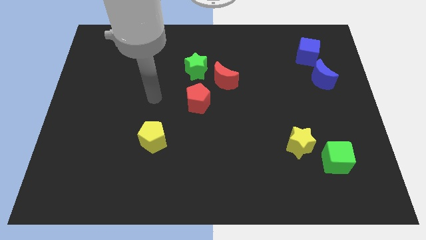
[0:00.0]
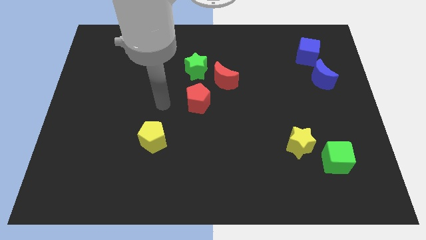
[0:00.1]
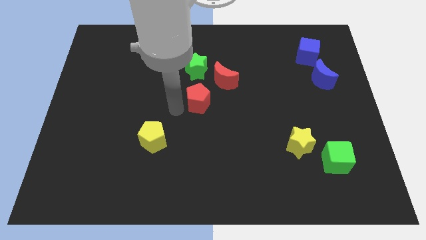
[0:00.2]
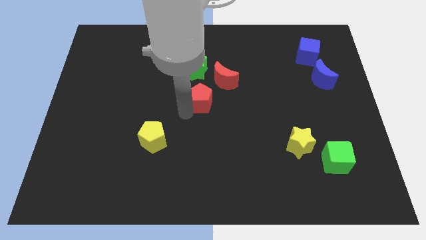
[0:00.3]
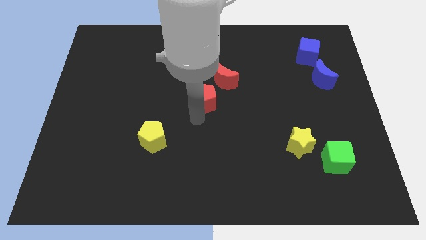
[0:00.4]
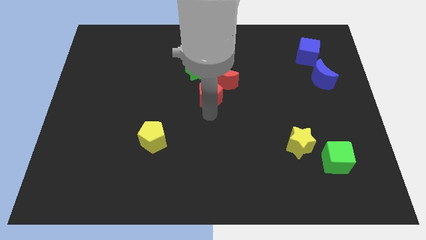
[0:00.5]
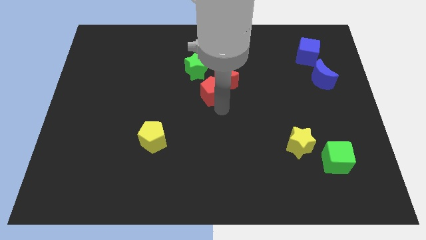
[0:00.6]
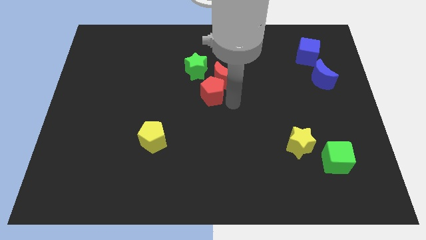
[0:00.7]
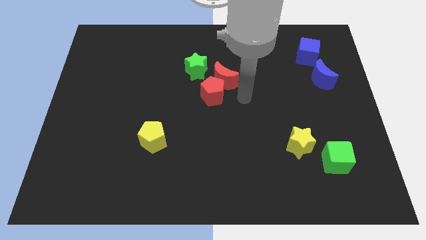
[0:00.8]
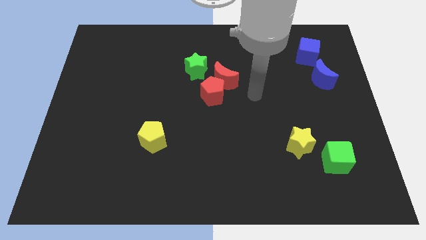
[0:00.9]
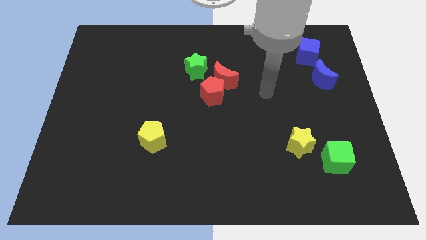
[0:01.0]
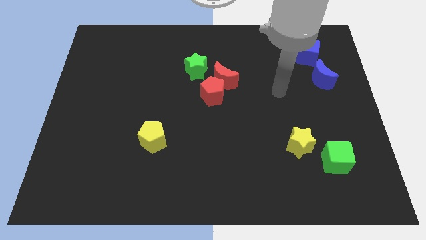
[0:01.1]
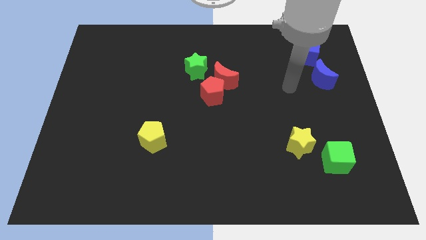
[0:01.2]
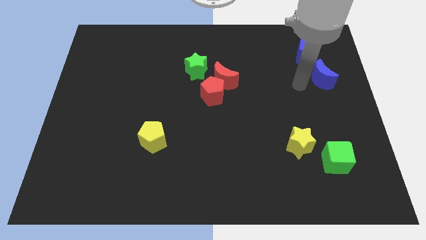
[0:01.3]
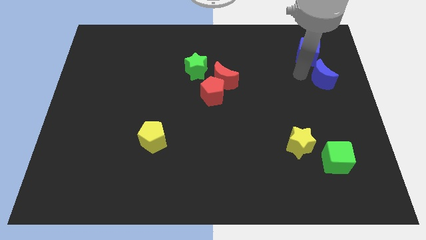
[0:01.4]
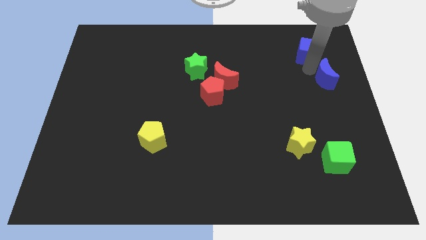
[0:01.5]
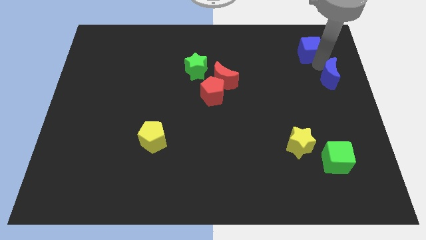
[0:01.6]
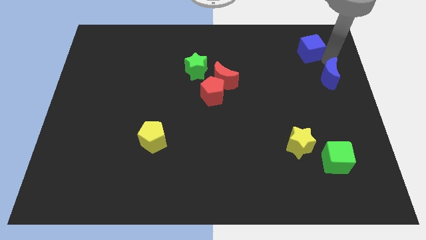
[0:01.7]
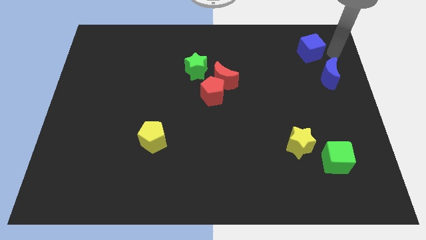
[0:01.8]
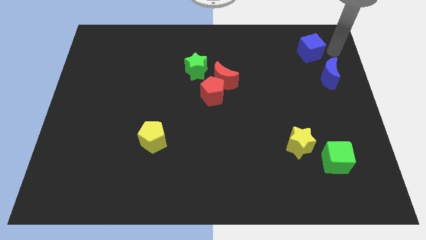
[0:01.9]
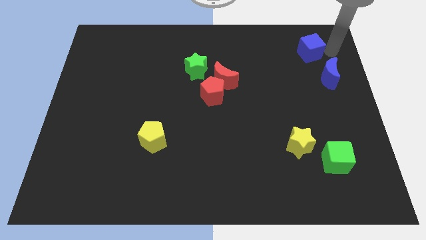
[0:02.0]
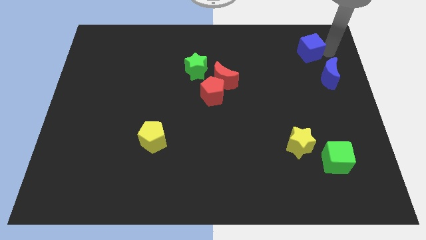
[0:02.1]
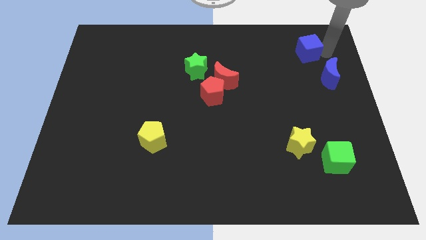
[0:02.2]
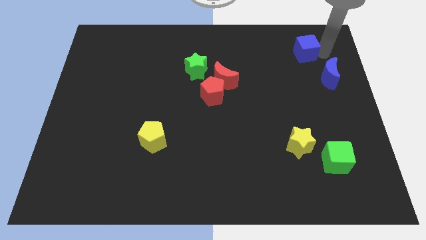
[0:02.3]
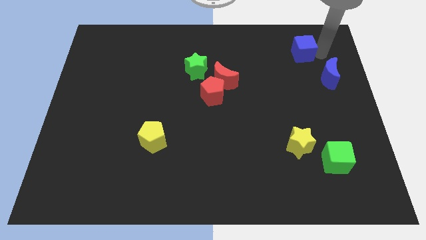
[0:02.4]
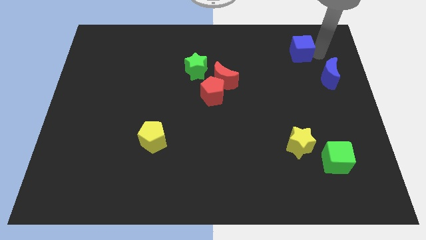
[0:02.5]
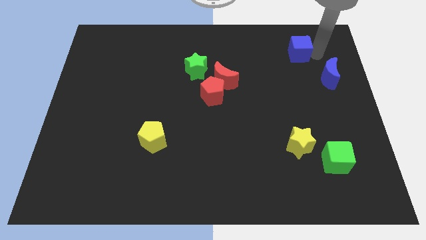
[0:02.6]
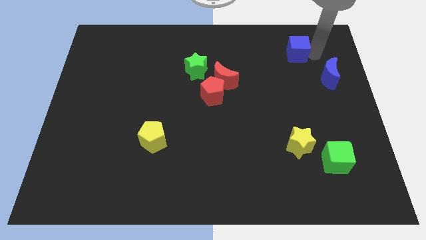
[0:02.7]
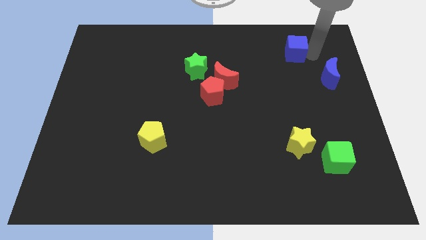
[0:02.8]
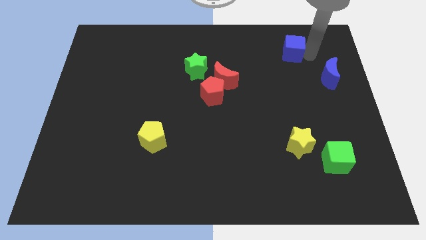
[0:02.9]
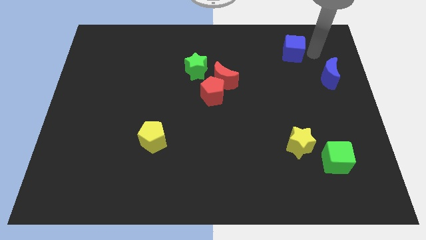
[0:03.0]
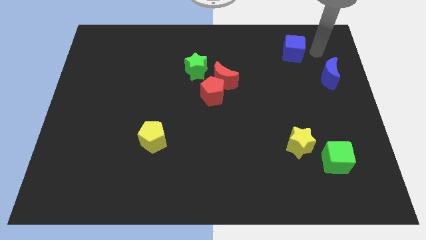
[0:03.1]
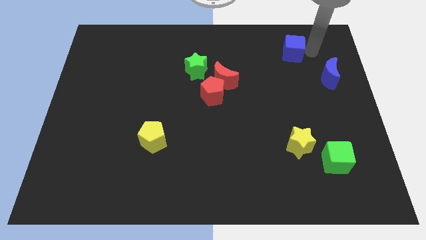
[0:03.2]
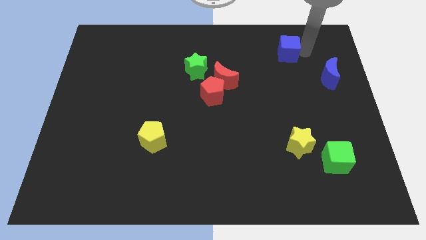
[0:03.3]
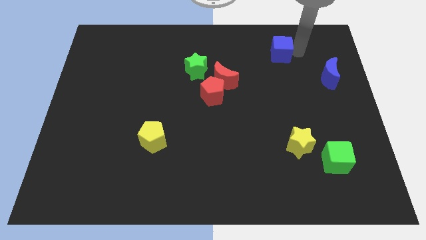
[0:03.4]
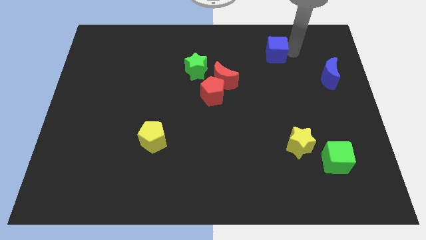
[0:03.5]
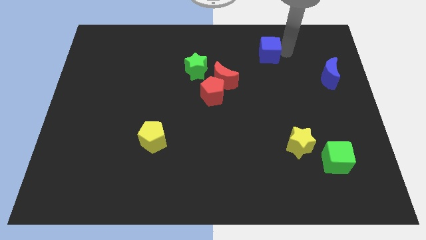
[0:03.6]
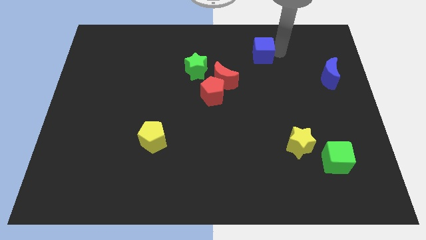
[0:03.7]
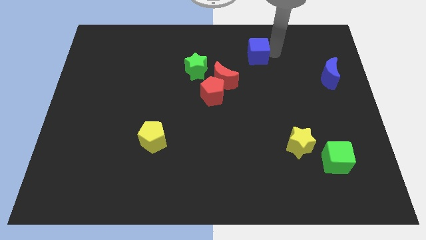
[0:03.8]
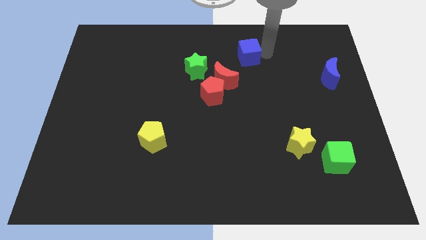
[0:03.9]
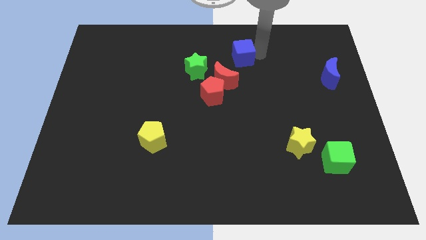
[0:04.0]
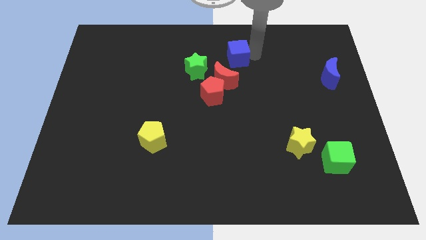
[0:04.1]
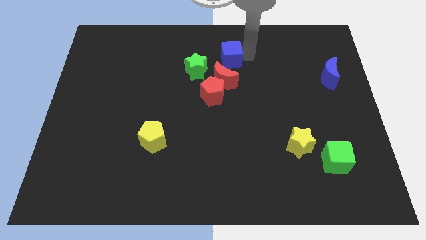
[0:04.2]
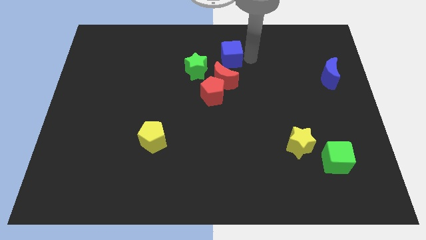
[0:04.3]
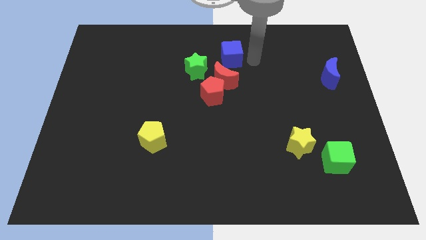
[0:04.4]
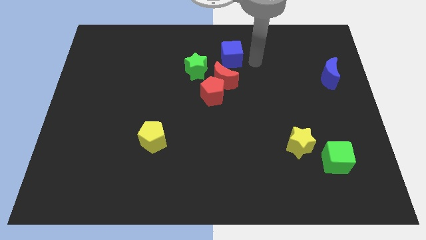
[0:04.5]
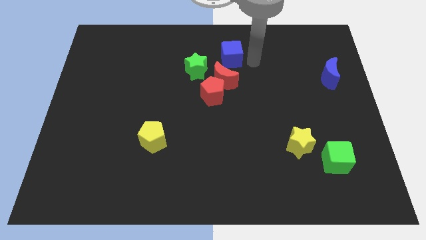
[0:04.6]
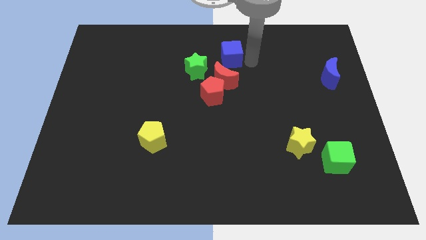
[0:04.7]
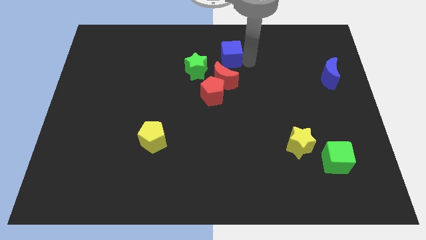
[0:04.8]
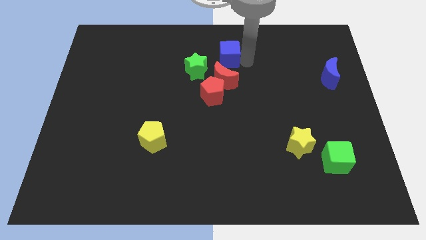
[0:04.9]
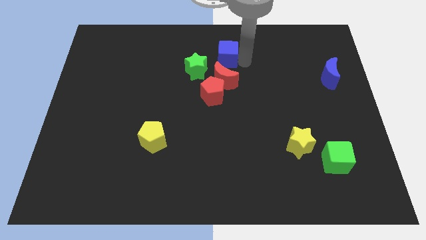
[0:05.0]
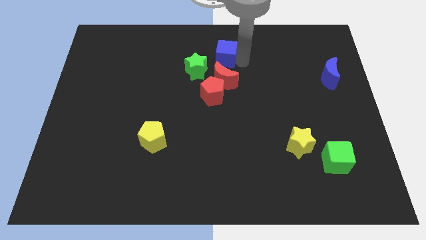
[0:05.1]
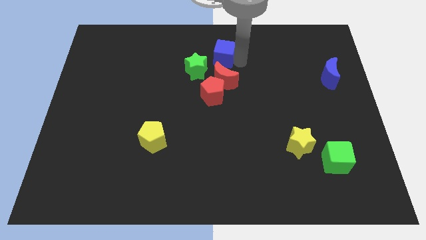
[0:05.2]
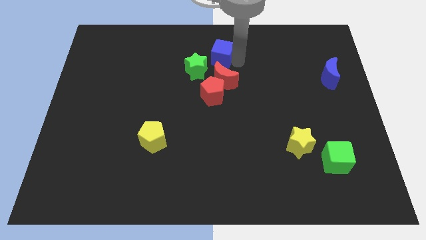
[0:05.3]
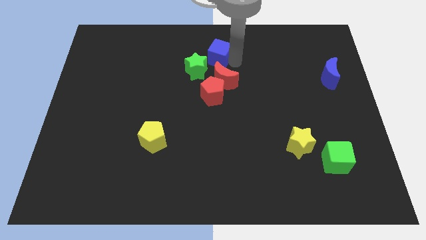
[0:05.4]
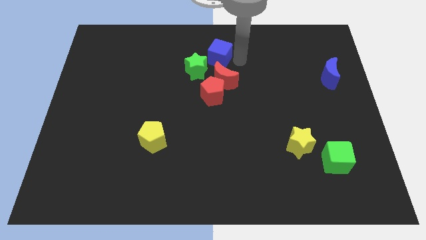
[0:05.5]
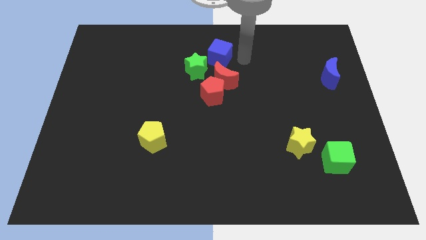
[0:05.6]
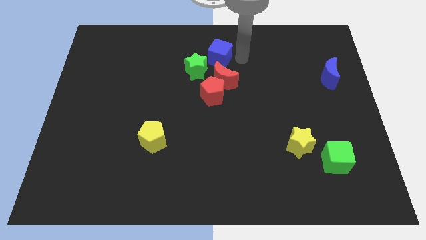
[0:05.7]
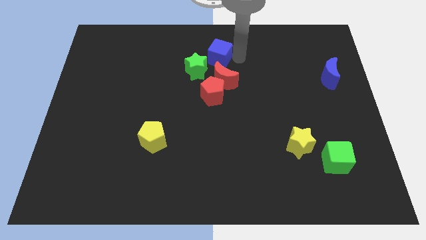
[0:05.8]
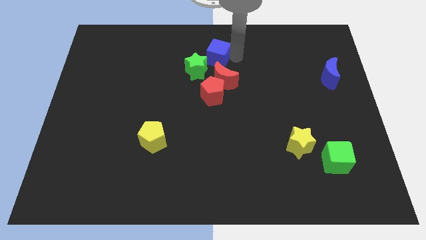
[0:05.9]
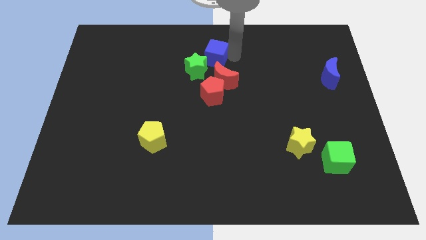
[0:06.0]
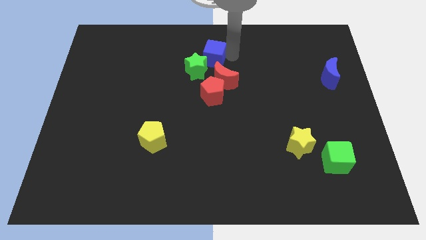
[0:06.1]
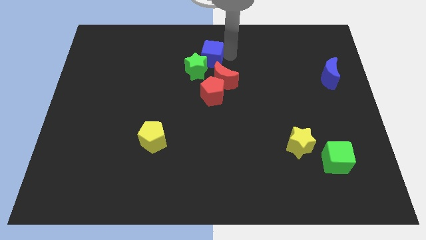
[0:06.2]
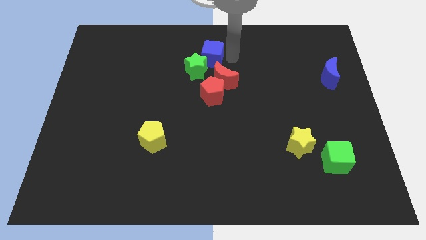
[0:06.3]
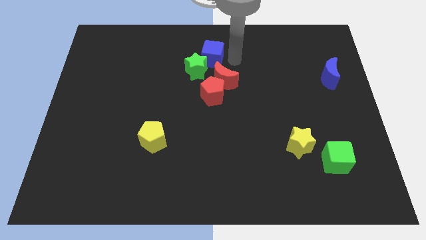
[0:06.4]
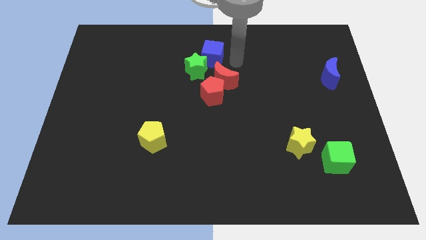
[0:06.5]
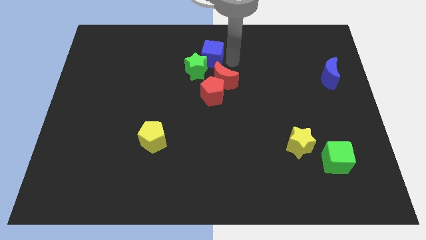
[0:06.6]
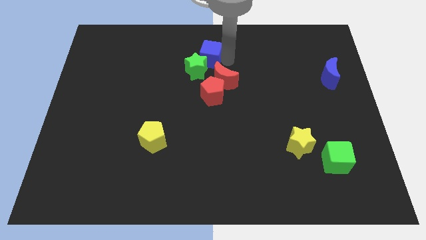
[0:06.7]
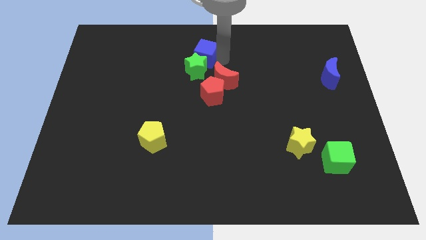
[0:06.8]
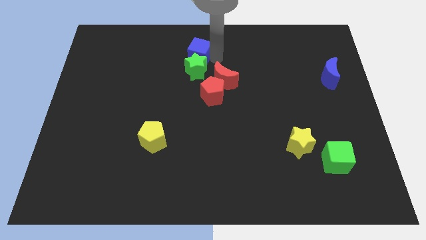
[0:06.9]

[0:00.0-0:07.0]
put the blue cube to the top left of the green star
